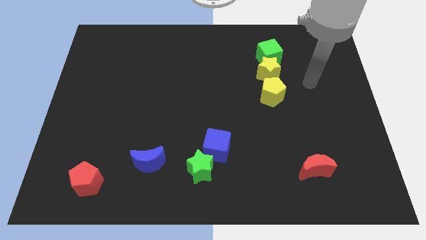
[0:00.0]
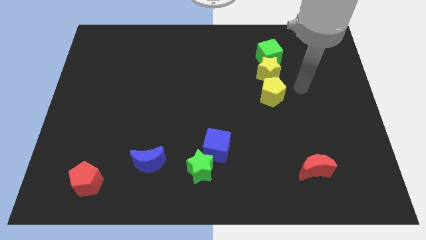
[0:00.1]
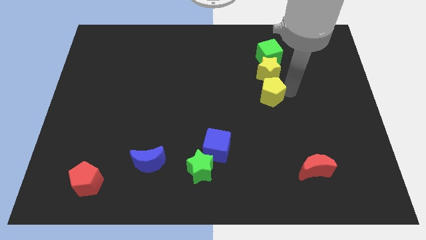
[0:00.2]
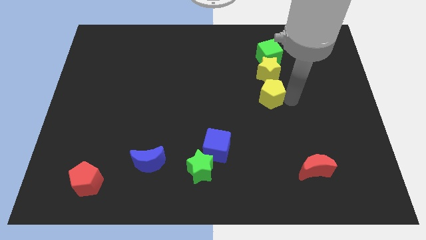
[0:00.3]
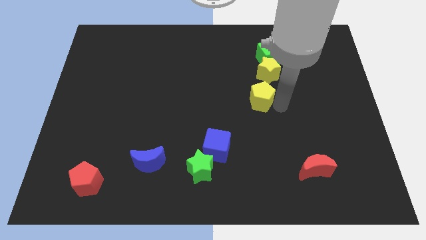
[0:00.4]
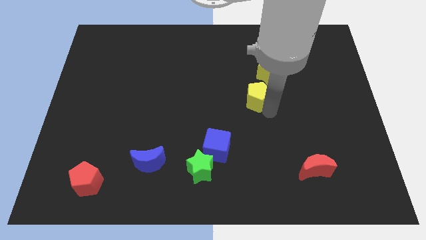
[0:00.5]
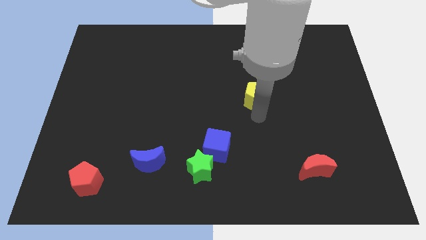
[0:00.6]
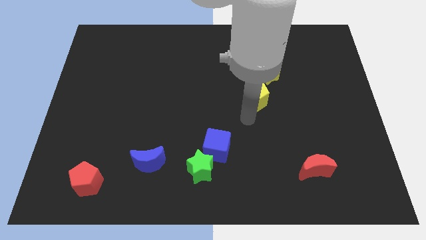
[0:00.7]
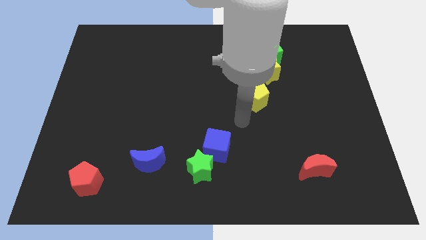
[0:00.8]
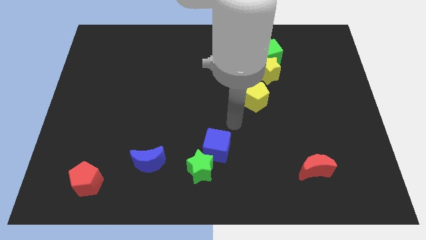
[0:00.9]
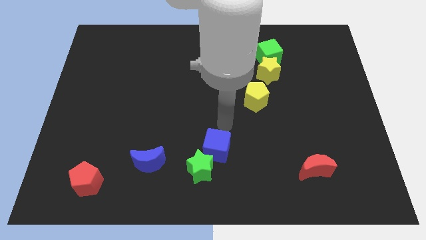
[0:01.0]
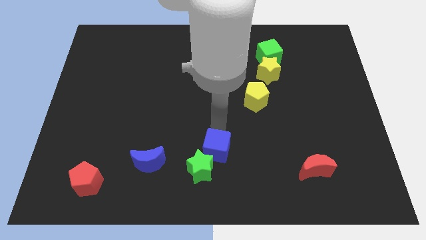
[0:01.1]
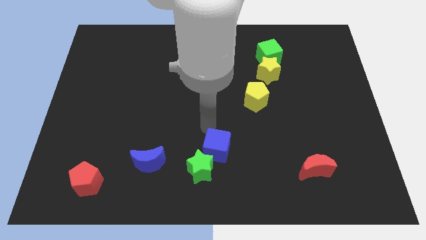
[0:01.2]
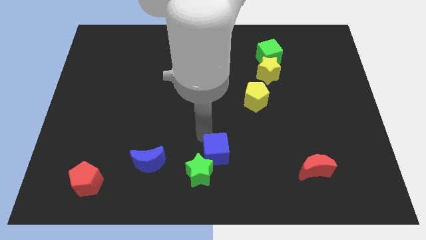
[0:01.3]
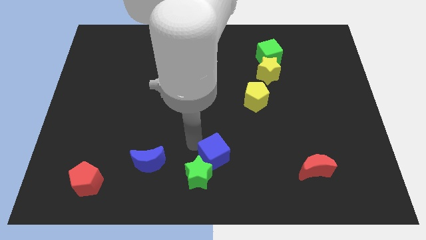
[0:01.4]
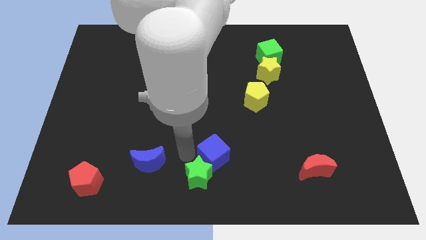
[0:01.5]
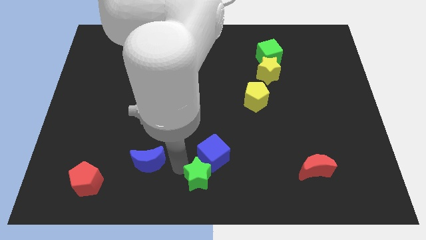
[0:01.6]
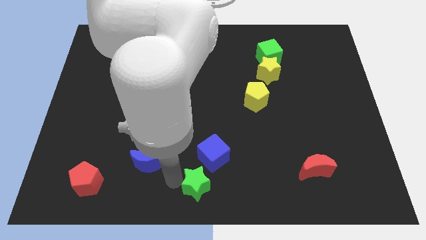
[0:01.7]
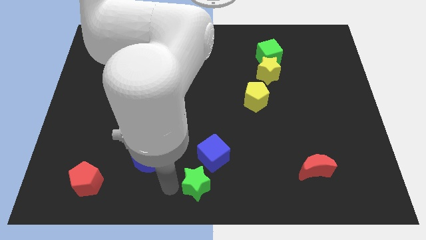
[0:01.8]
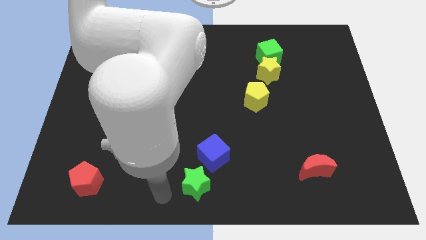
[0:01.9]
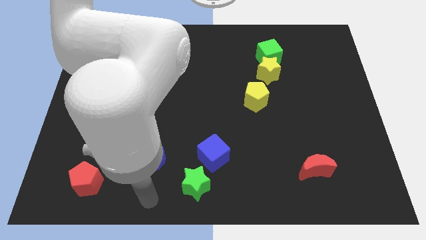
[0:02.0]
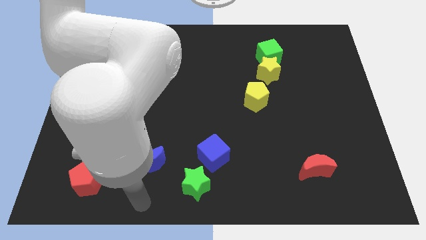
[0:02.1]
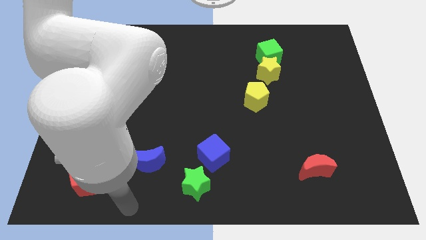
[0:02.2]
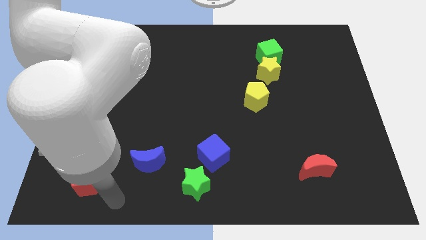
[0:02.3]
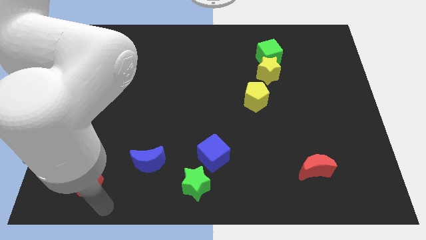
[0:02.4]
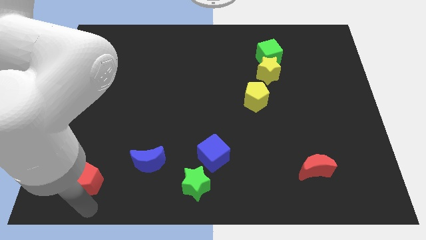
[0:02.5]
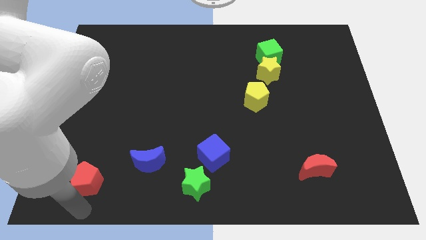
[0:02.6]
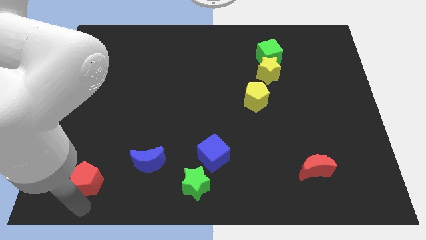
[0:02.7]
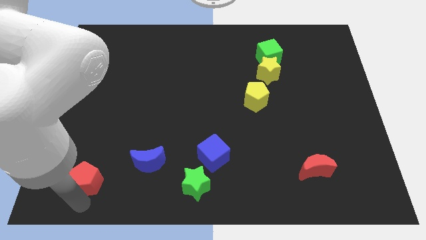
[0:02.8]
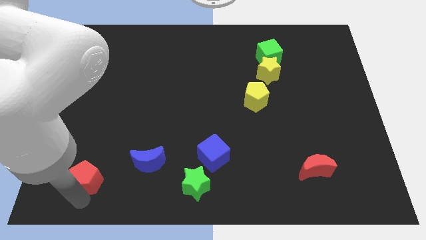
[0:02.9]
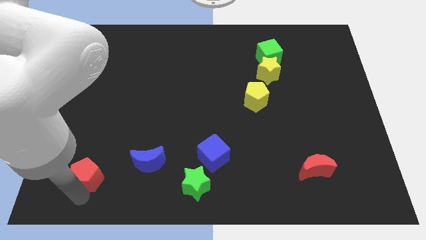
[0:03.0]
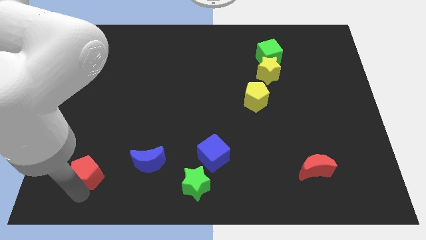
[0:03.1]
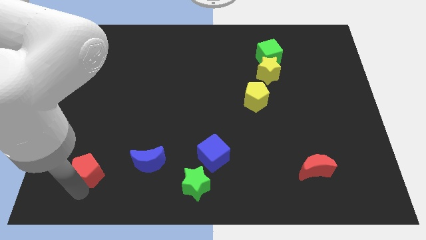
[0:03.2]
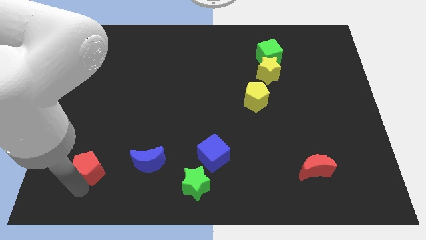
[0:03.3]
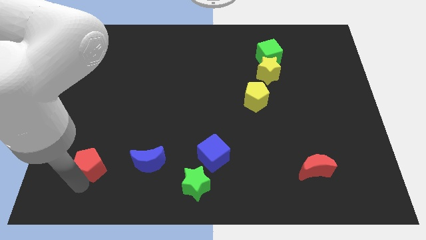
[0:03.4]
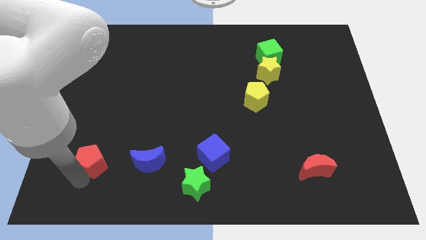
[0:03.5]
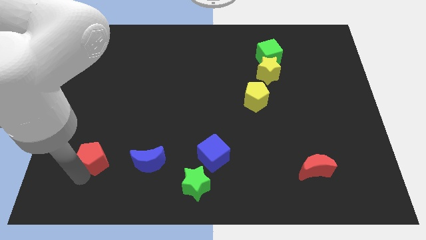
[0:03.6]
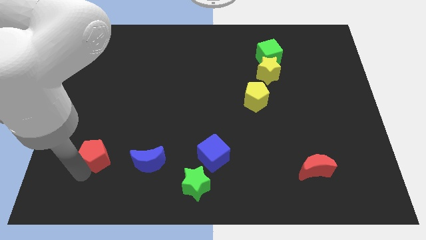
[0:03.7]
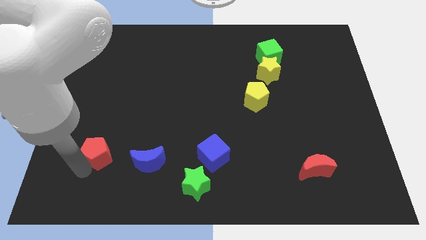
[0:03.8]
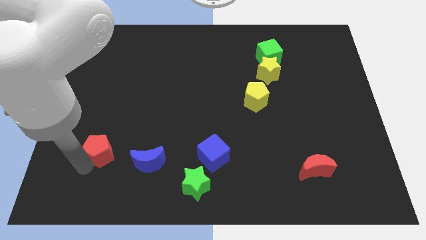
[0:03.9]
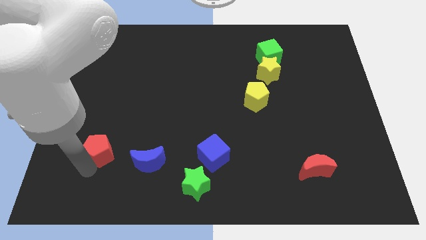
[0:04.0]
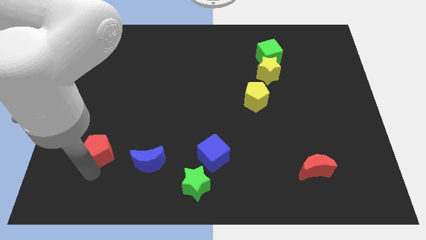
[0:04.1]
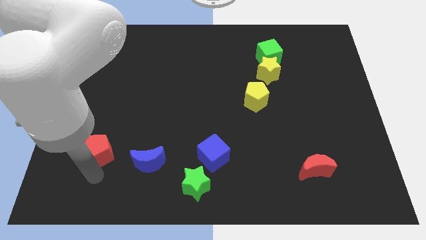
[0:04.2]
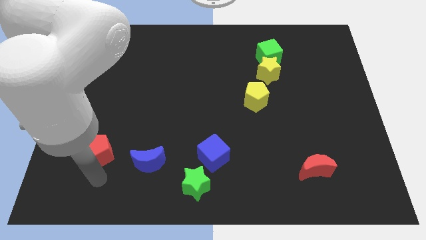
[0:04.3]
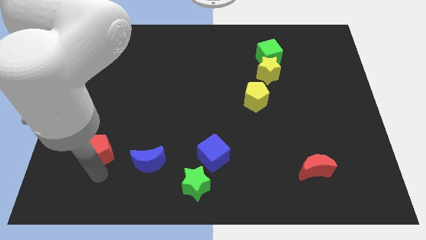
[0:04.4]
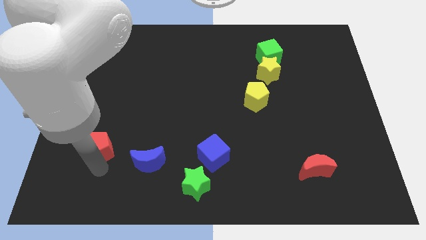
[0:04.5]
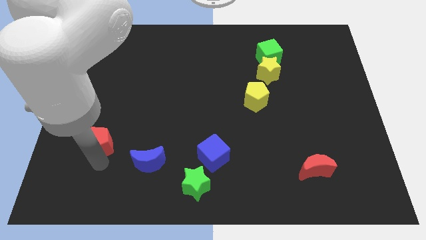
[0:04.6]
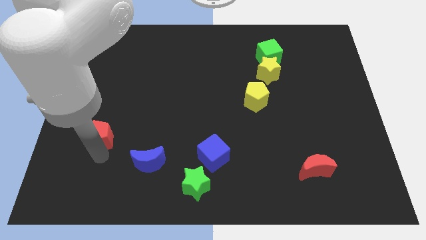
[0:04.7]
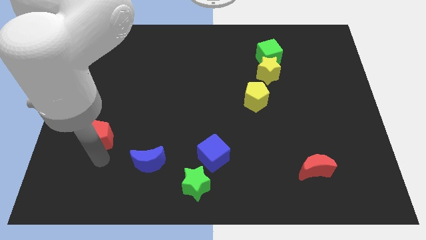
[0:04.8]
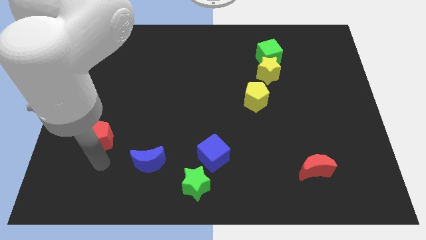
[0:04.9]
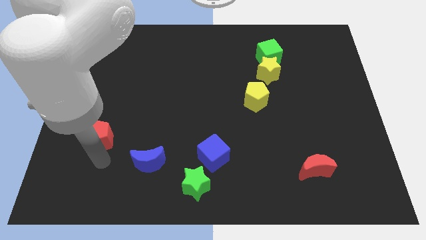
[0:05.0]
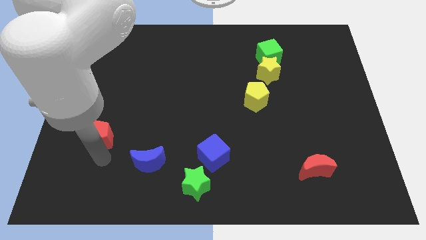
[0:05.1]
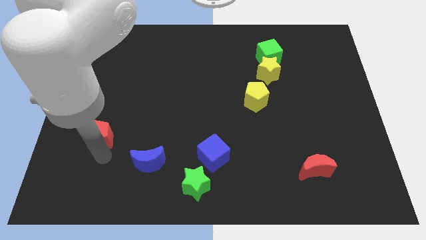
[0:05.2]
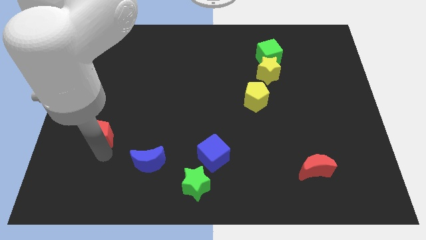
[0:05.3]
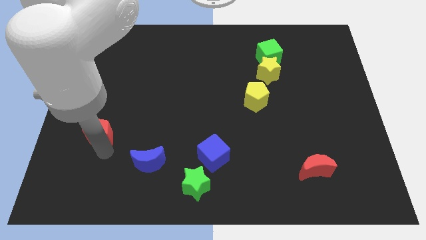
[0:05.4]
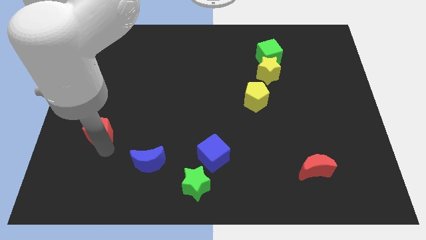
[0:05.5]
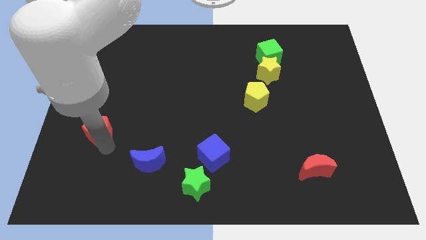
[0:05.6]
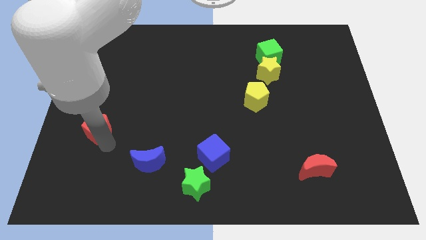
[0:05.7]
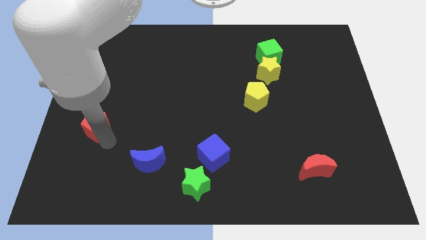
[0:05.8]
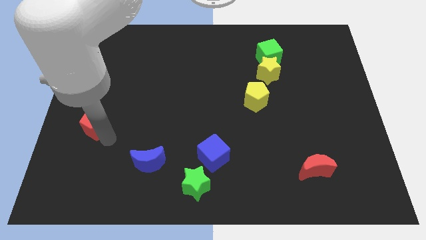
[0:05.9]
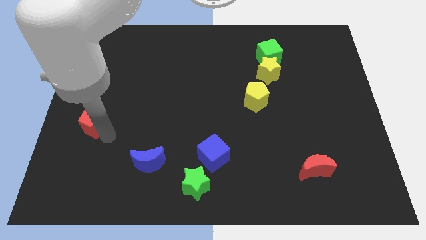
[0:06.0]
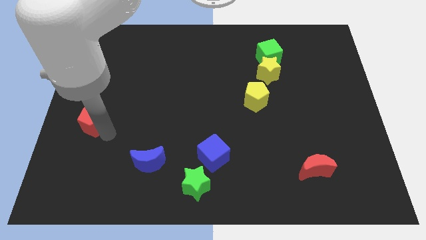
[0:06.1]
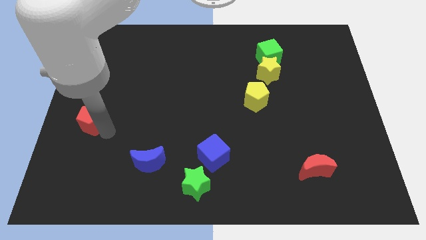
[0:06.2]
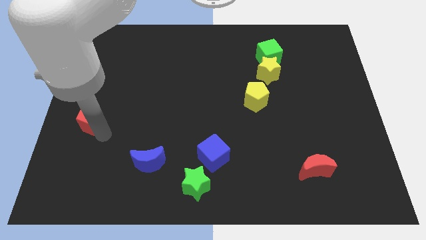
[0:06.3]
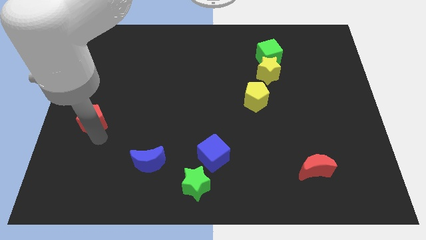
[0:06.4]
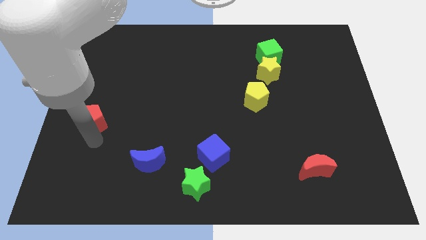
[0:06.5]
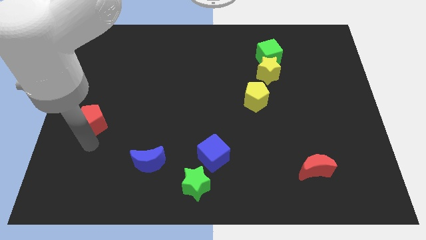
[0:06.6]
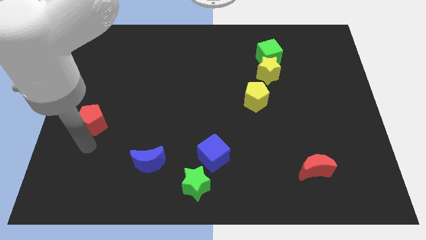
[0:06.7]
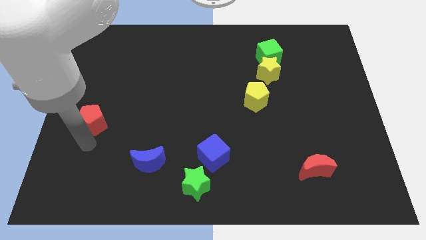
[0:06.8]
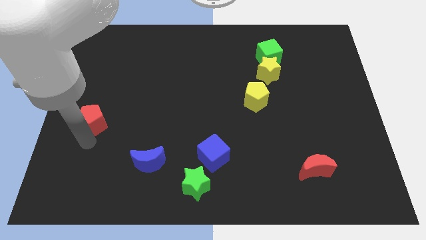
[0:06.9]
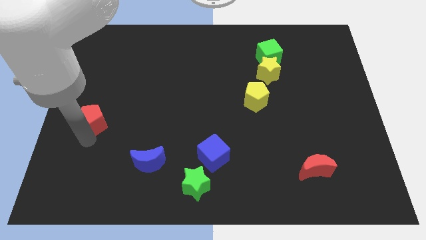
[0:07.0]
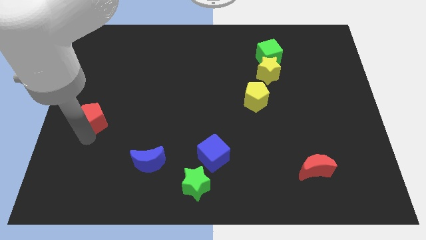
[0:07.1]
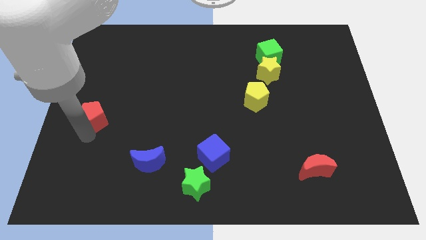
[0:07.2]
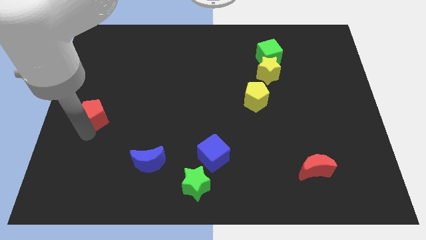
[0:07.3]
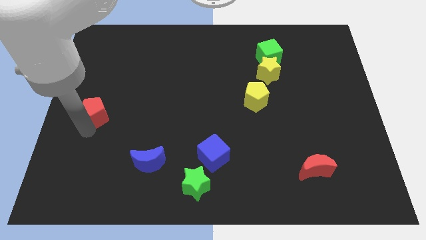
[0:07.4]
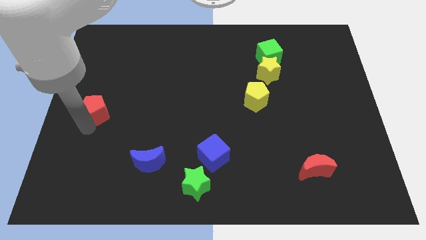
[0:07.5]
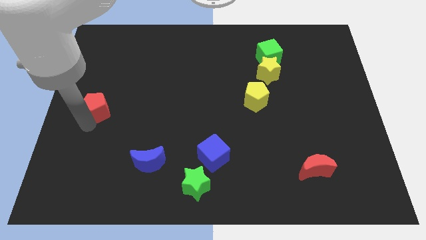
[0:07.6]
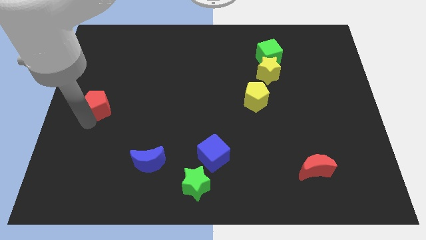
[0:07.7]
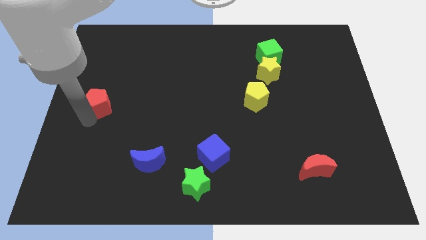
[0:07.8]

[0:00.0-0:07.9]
slide the red pentagon up

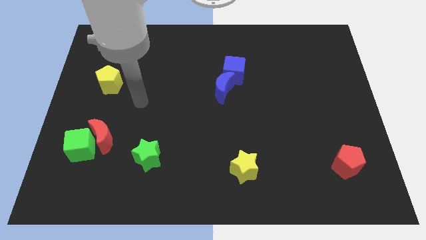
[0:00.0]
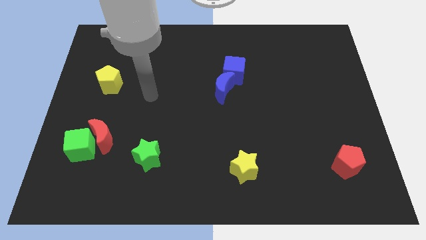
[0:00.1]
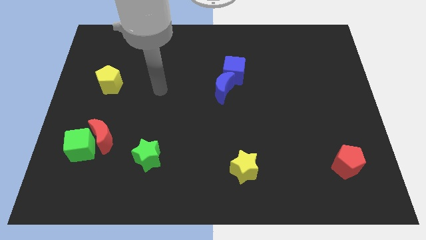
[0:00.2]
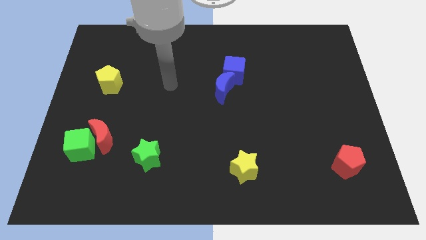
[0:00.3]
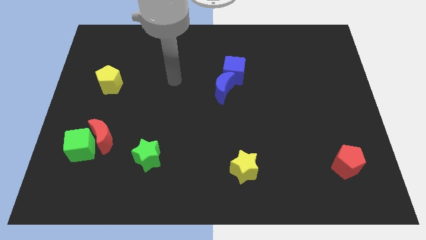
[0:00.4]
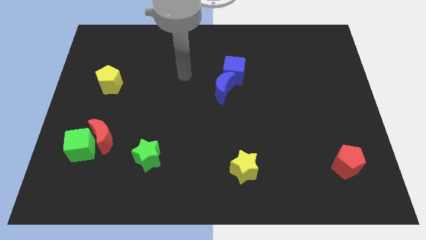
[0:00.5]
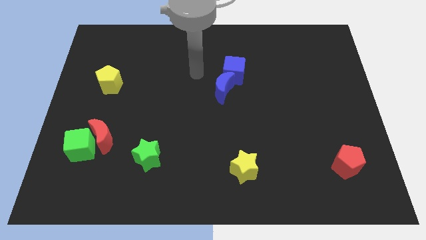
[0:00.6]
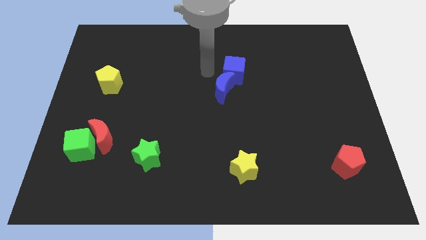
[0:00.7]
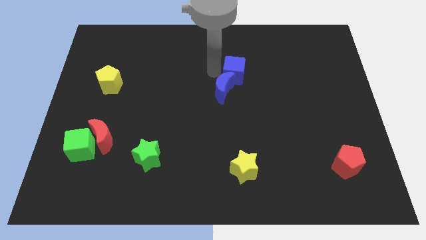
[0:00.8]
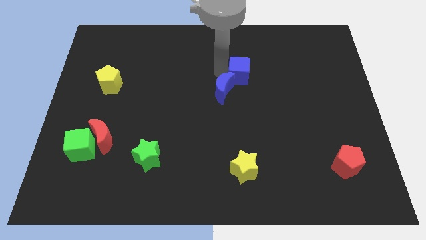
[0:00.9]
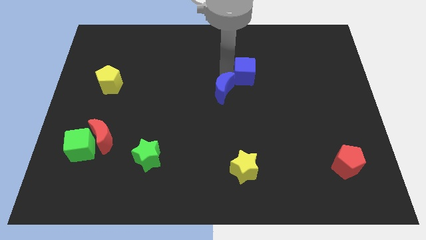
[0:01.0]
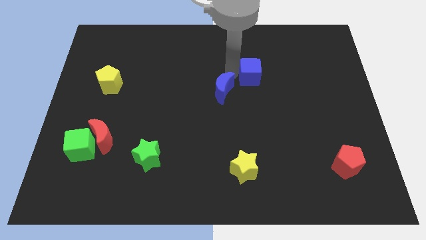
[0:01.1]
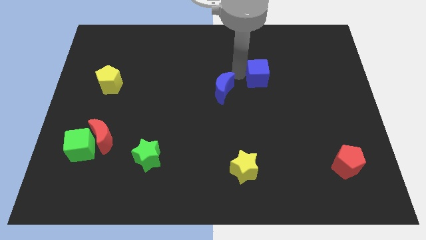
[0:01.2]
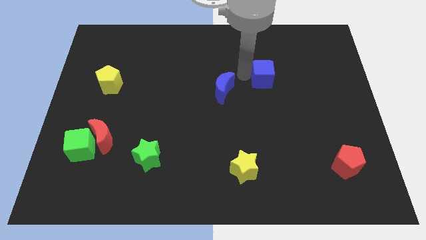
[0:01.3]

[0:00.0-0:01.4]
move the blue cube slightly to the right
